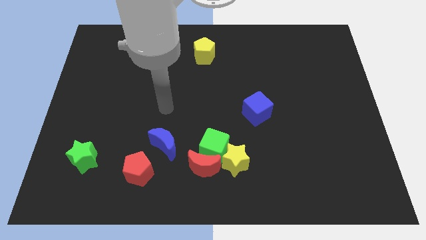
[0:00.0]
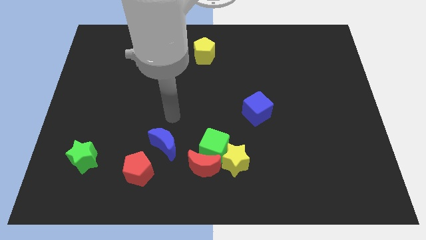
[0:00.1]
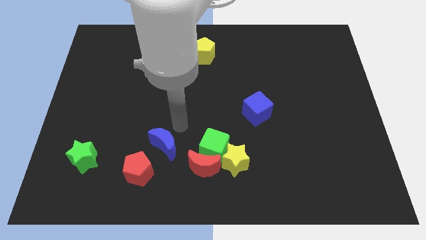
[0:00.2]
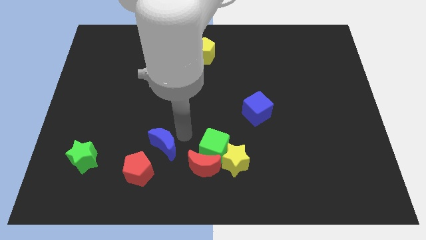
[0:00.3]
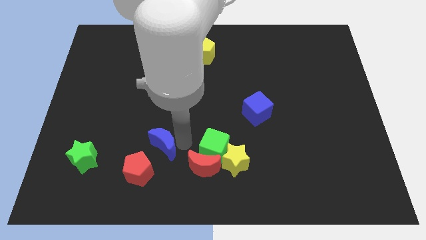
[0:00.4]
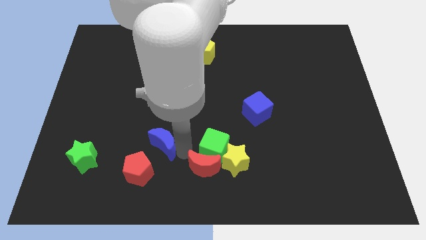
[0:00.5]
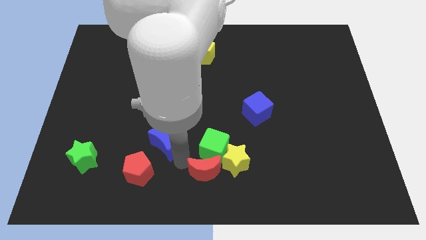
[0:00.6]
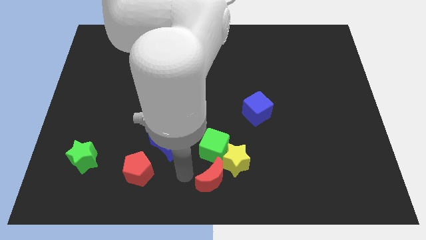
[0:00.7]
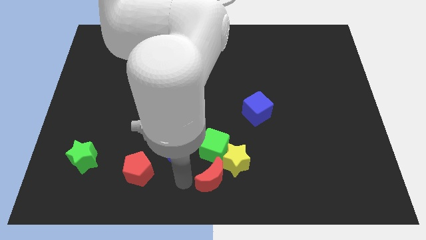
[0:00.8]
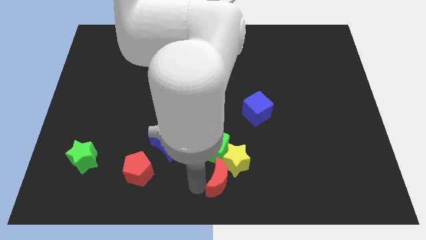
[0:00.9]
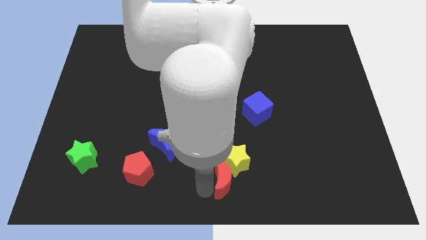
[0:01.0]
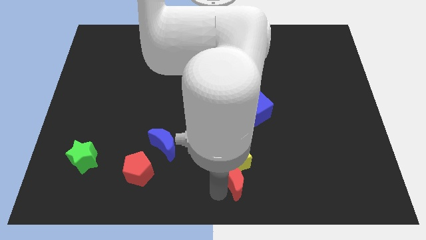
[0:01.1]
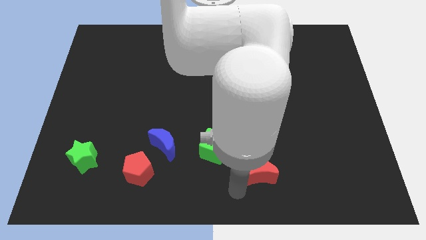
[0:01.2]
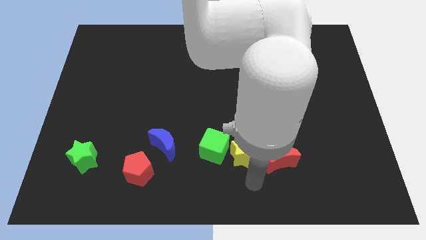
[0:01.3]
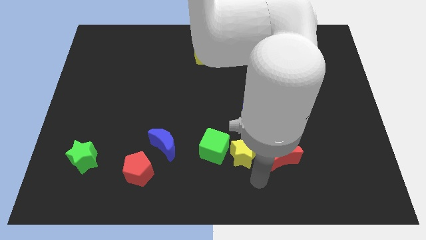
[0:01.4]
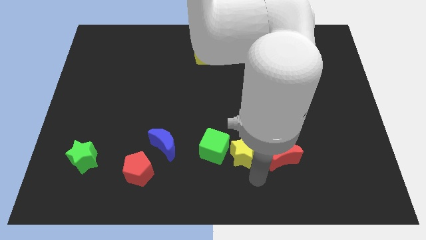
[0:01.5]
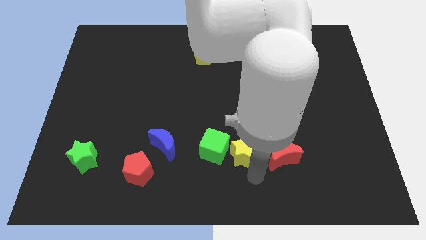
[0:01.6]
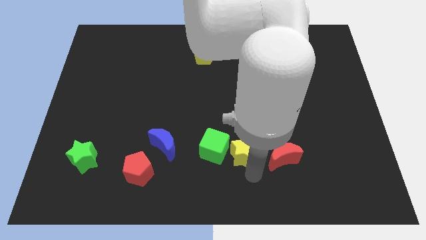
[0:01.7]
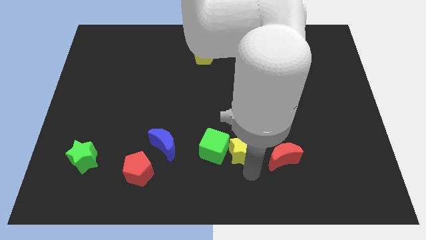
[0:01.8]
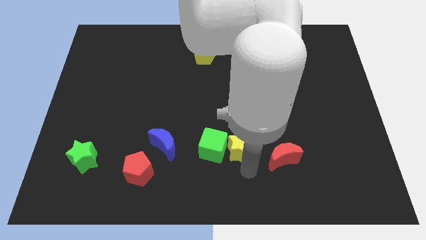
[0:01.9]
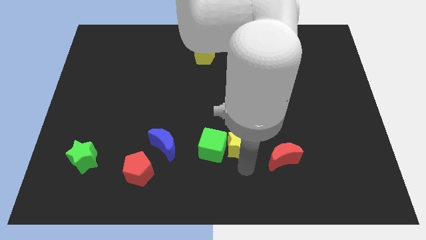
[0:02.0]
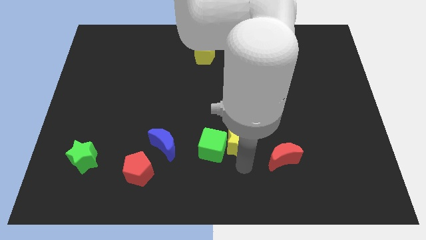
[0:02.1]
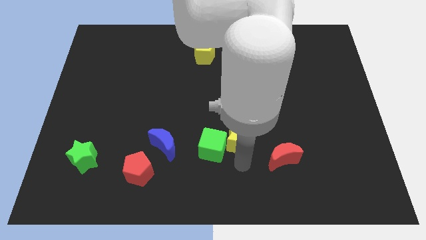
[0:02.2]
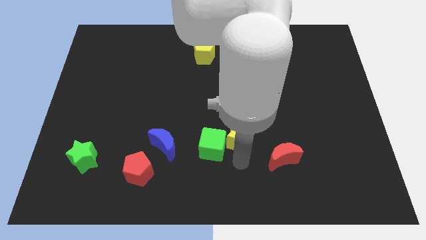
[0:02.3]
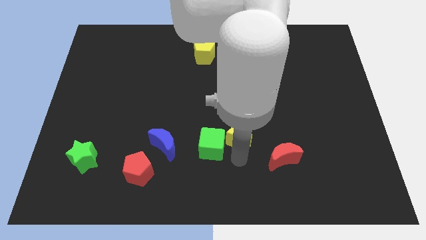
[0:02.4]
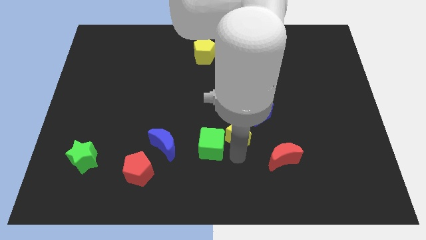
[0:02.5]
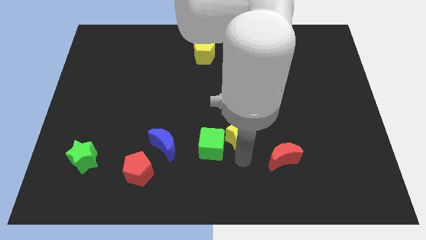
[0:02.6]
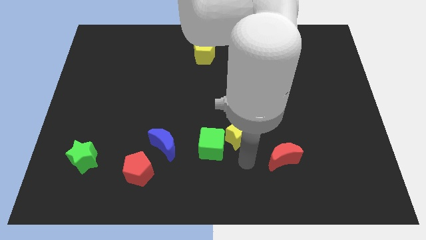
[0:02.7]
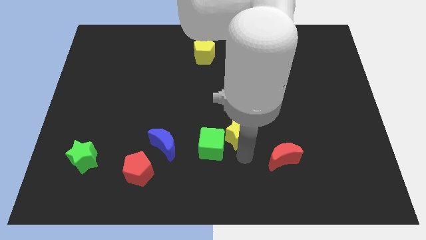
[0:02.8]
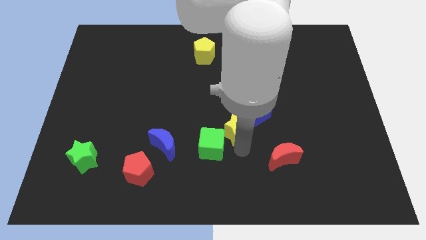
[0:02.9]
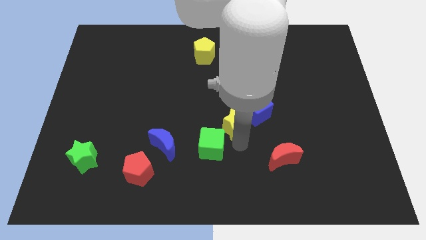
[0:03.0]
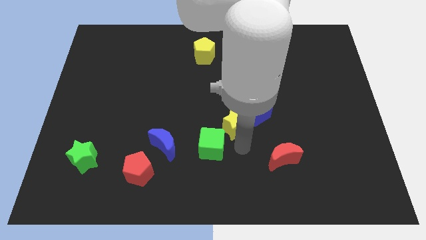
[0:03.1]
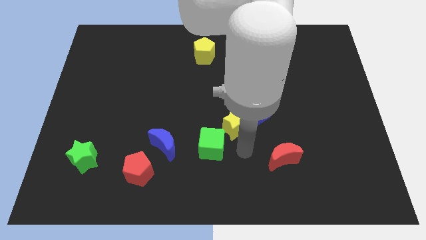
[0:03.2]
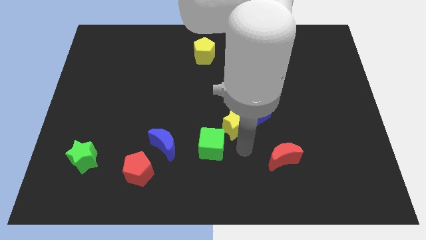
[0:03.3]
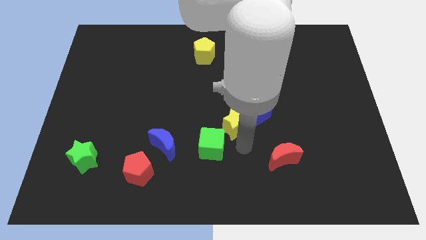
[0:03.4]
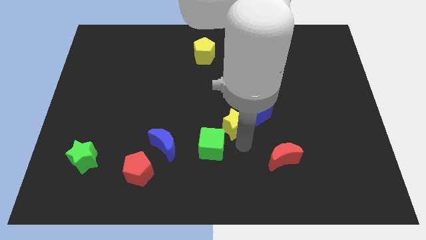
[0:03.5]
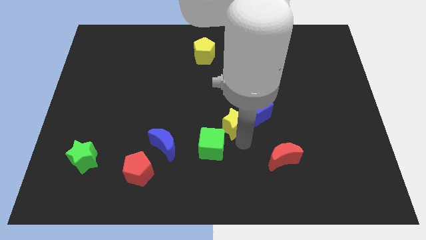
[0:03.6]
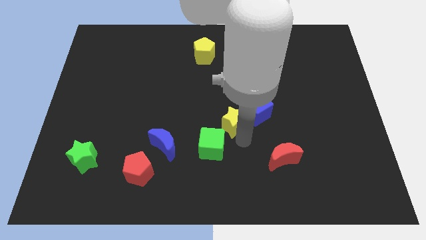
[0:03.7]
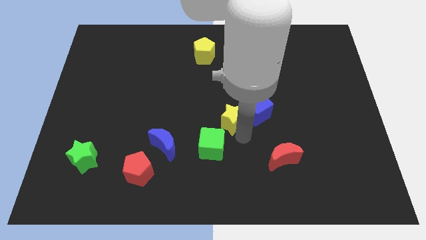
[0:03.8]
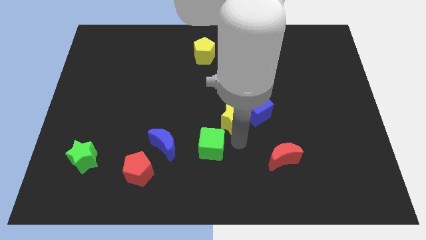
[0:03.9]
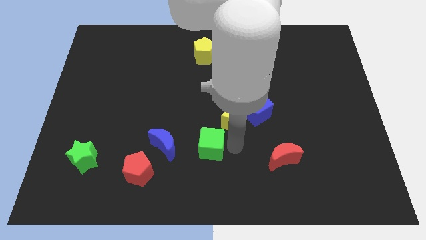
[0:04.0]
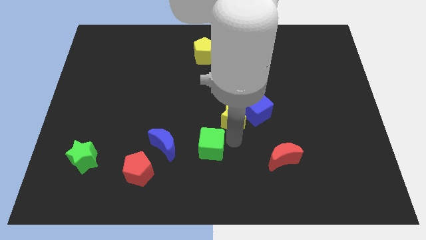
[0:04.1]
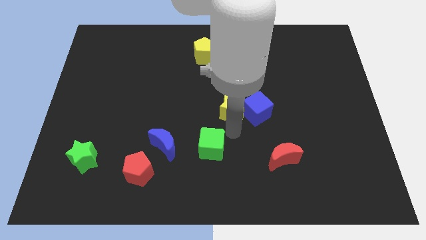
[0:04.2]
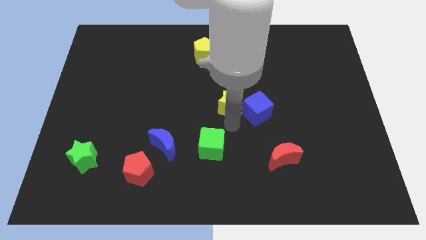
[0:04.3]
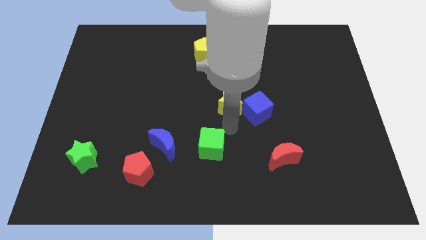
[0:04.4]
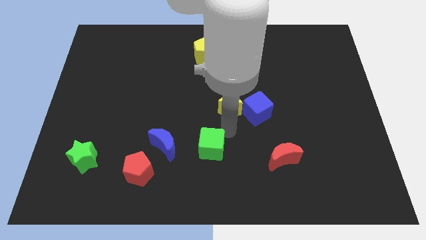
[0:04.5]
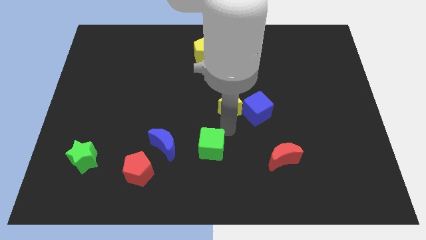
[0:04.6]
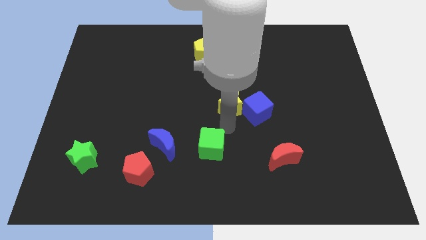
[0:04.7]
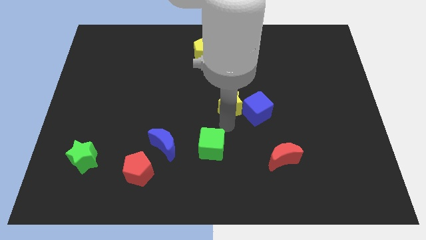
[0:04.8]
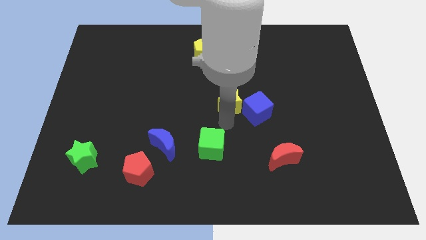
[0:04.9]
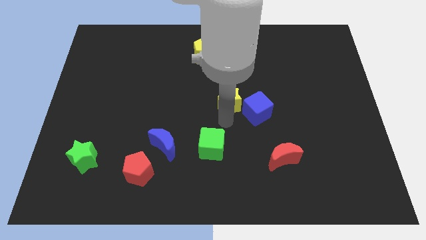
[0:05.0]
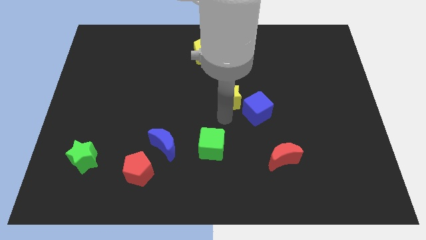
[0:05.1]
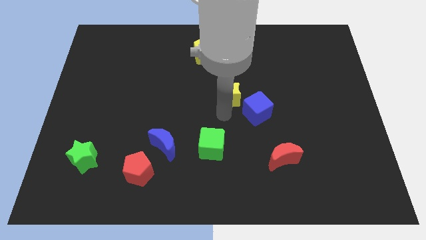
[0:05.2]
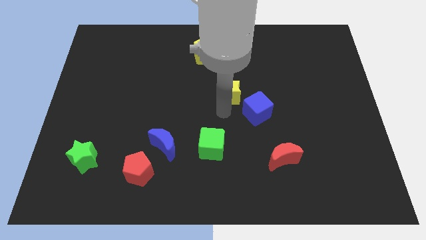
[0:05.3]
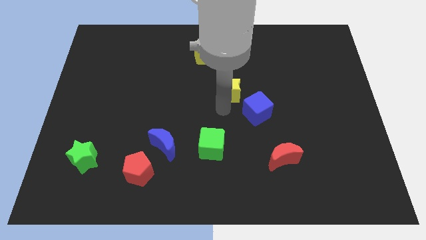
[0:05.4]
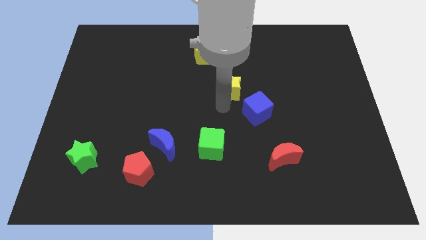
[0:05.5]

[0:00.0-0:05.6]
push the yellow star upwards

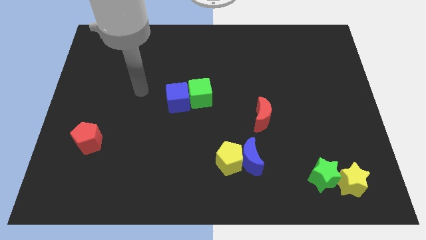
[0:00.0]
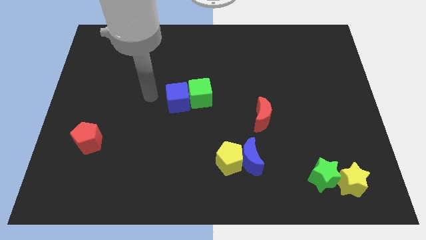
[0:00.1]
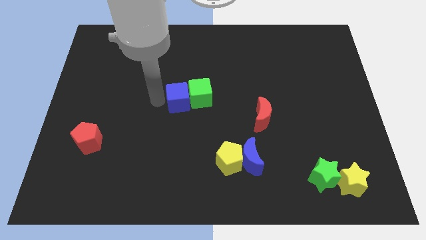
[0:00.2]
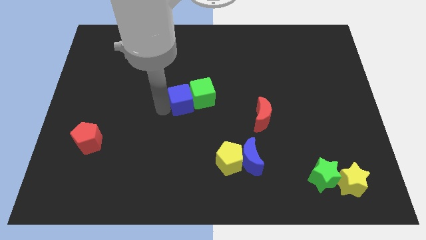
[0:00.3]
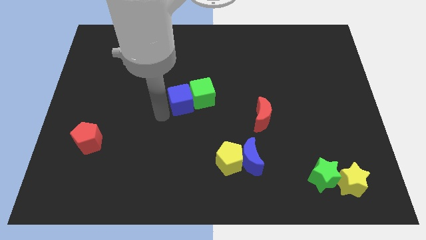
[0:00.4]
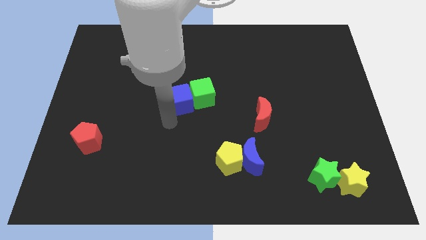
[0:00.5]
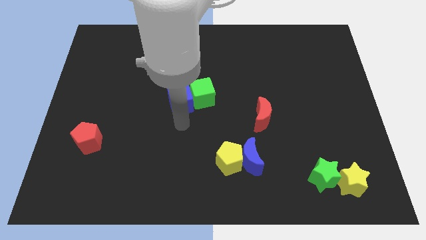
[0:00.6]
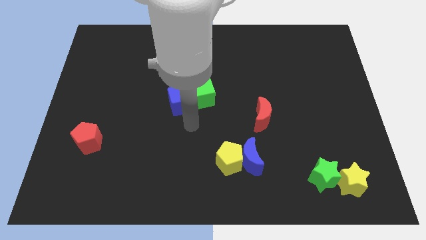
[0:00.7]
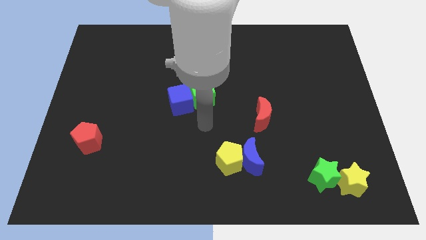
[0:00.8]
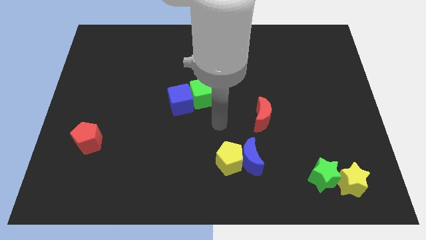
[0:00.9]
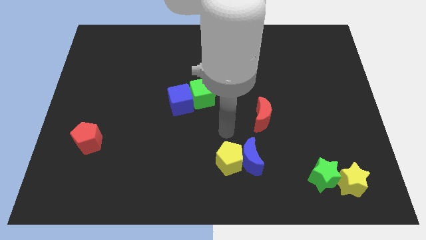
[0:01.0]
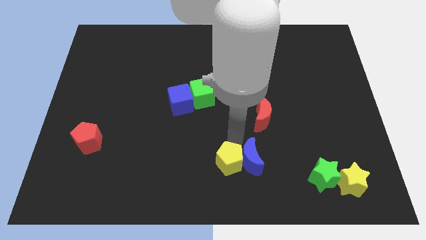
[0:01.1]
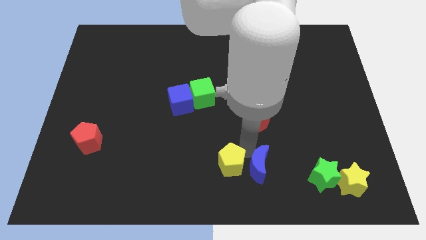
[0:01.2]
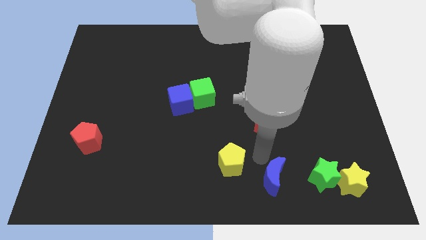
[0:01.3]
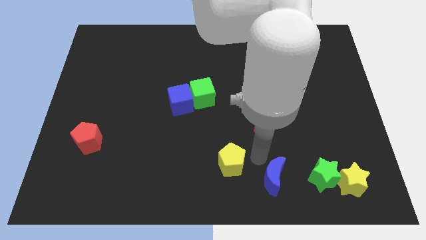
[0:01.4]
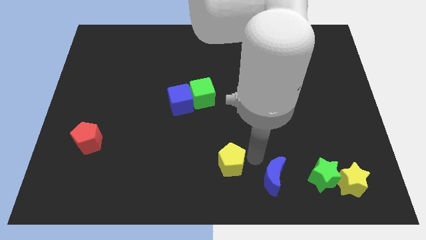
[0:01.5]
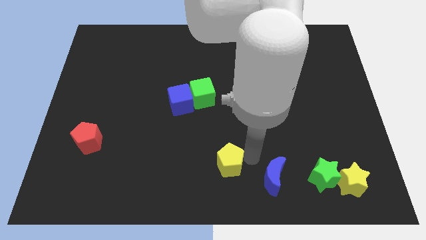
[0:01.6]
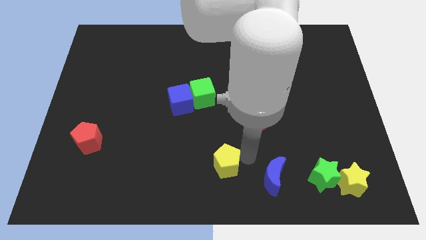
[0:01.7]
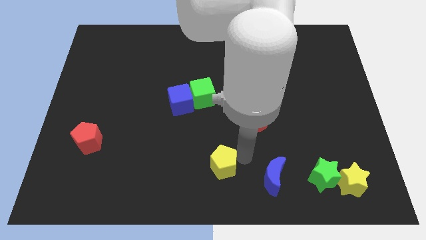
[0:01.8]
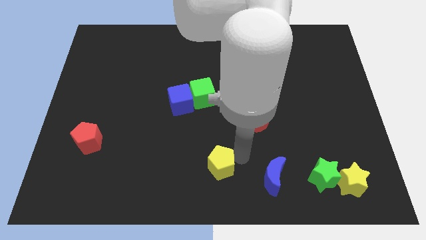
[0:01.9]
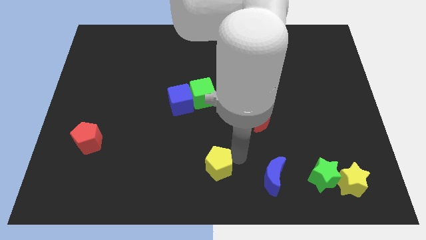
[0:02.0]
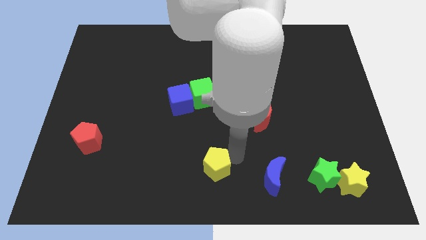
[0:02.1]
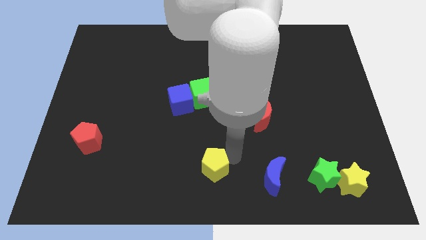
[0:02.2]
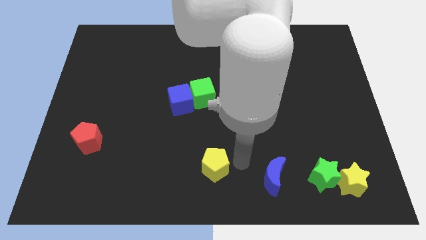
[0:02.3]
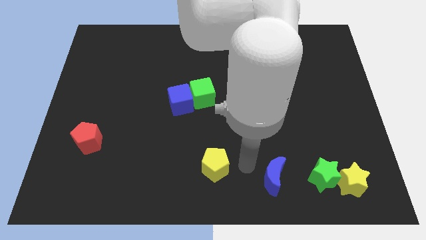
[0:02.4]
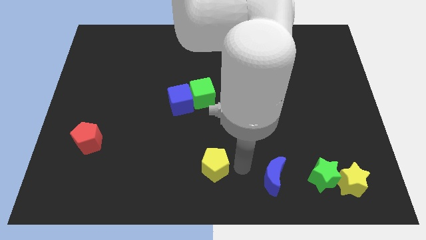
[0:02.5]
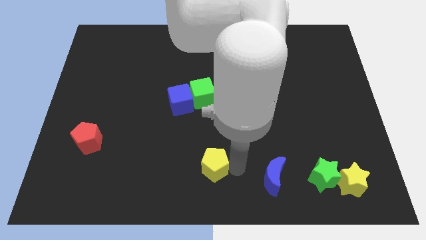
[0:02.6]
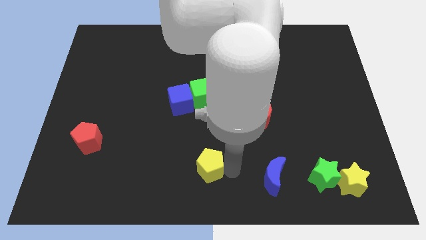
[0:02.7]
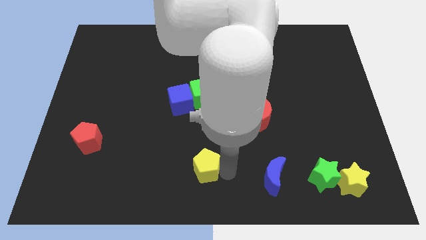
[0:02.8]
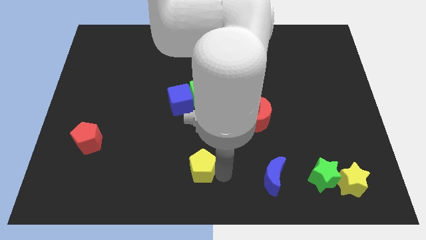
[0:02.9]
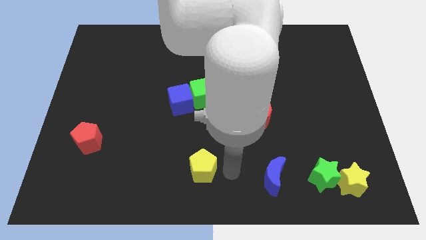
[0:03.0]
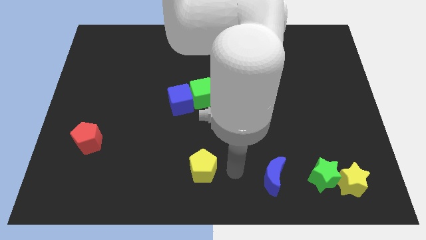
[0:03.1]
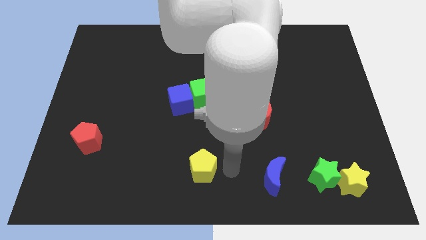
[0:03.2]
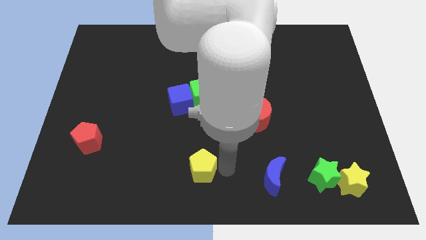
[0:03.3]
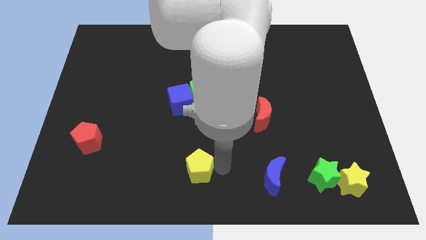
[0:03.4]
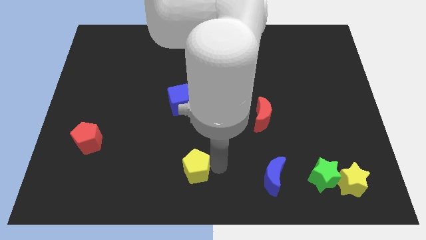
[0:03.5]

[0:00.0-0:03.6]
slightly slide the yellow pentagon left
